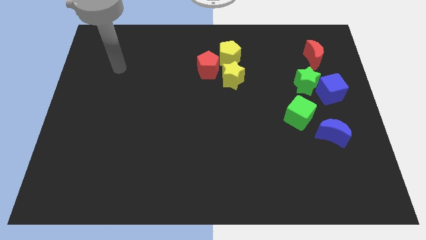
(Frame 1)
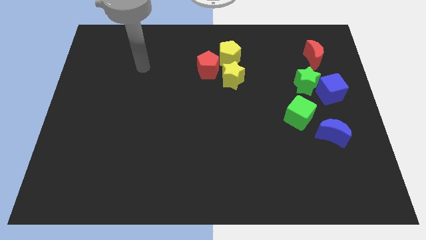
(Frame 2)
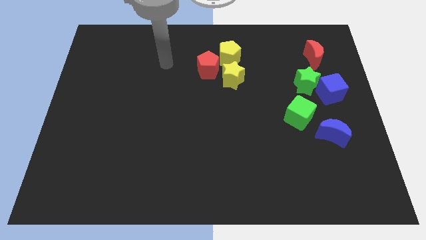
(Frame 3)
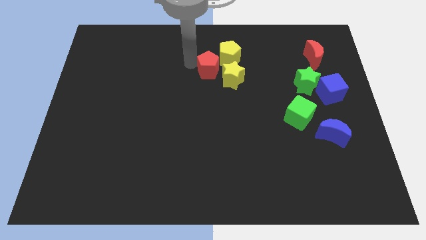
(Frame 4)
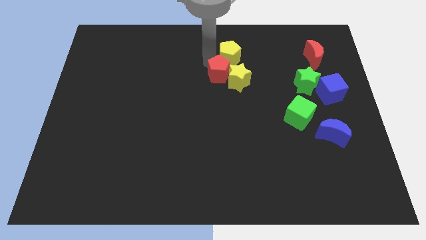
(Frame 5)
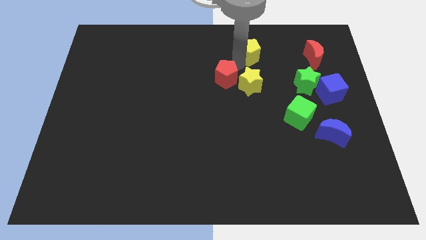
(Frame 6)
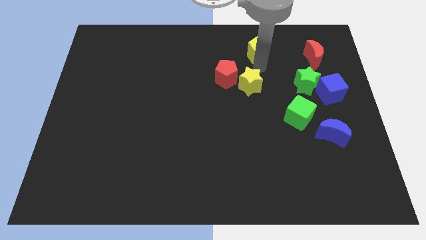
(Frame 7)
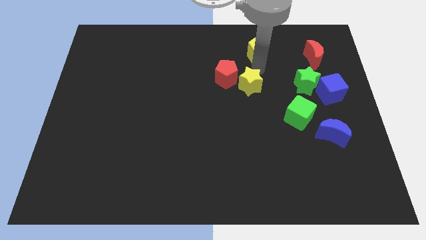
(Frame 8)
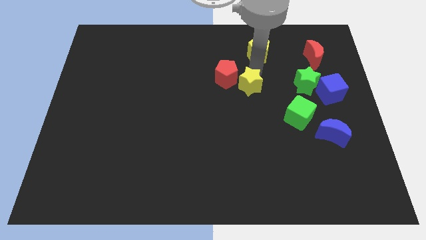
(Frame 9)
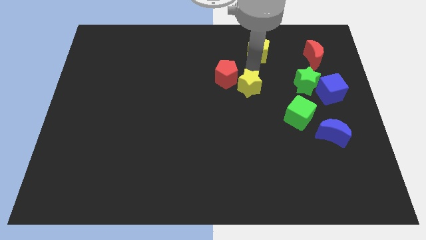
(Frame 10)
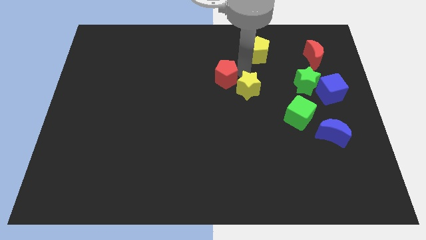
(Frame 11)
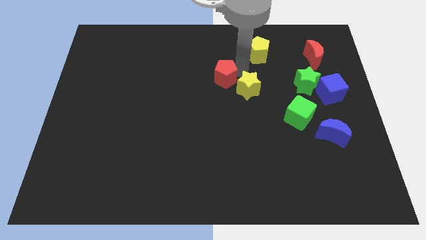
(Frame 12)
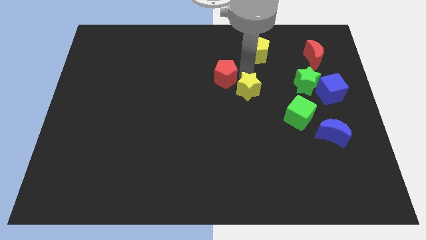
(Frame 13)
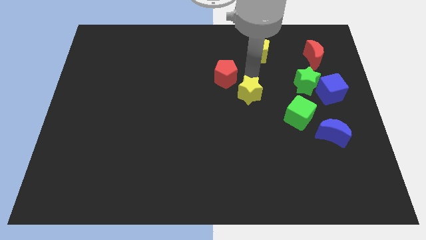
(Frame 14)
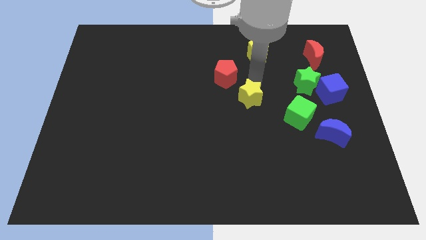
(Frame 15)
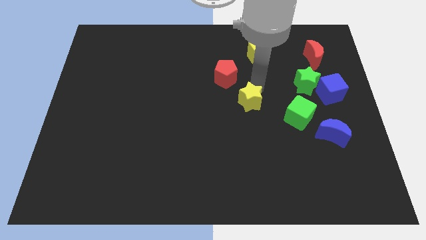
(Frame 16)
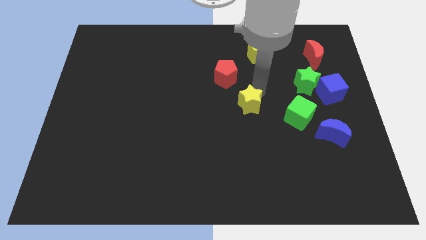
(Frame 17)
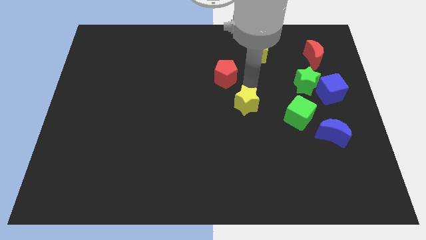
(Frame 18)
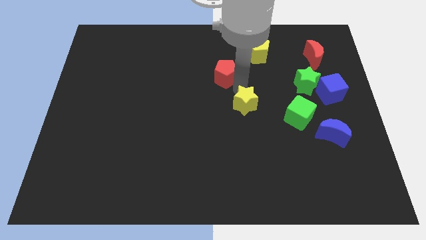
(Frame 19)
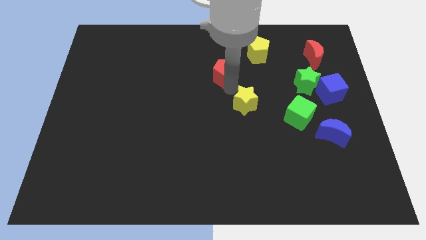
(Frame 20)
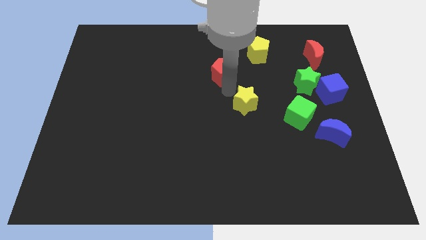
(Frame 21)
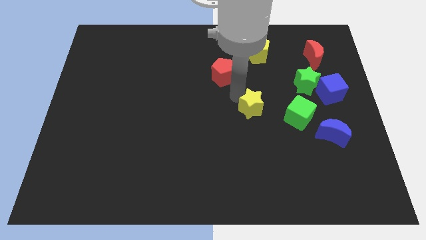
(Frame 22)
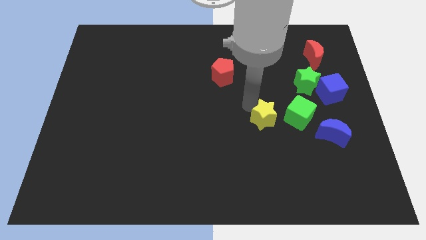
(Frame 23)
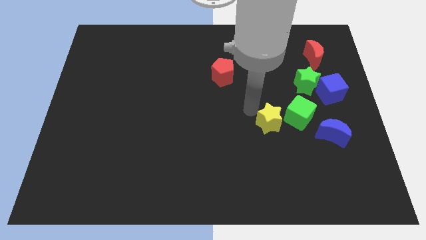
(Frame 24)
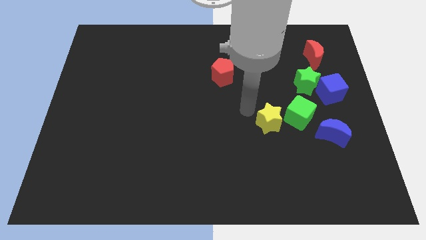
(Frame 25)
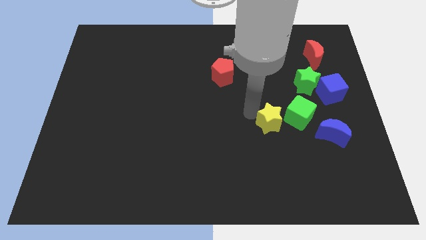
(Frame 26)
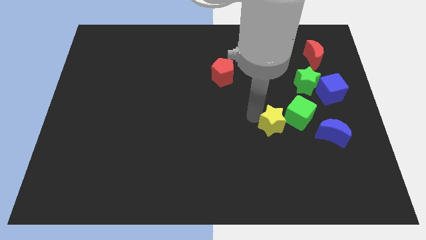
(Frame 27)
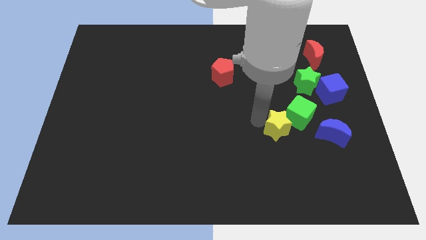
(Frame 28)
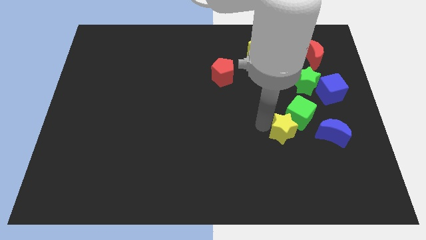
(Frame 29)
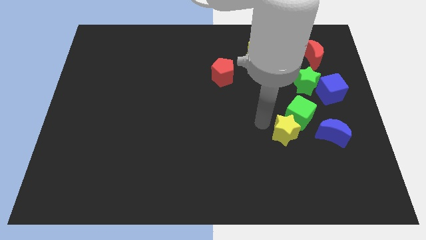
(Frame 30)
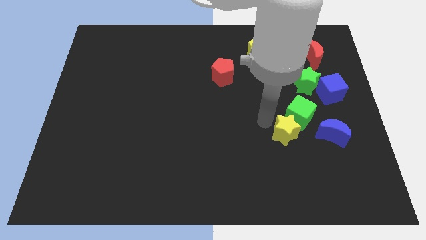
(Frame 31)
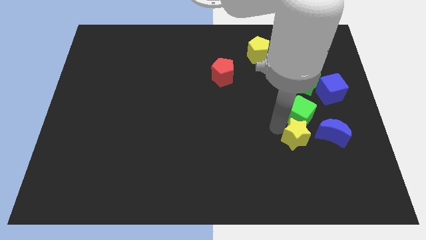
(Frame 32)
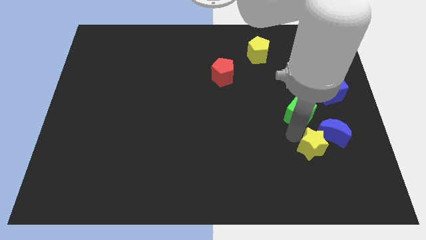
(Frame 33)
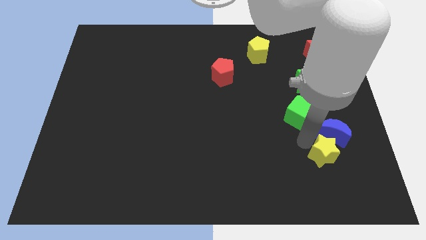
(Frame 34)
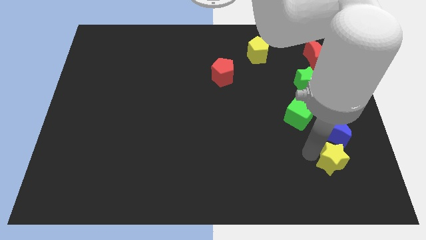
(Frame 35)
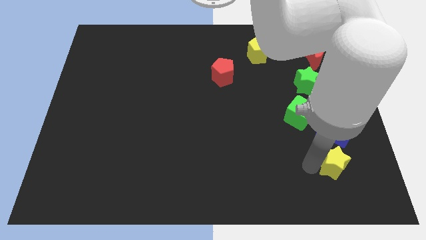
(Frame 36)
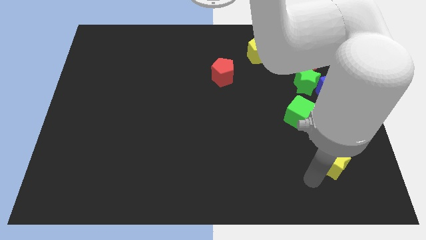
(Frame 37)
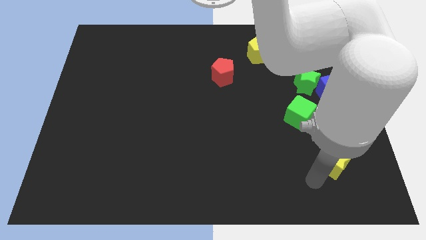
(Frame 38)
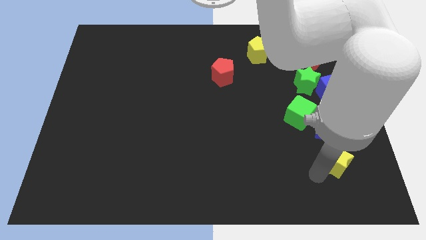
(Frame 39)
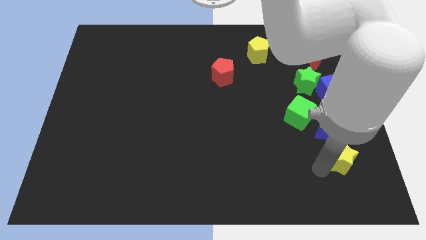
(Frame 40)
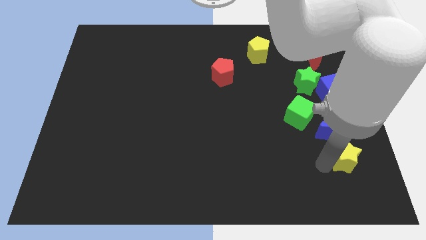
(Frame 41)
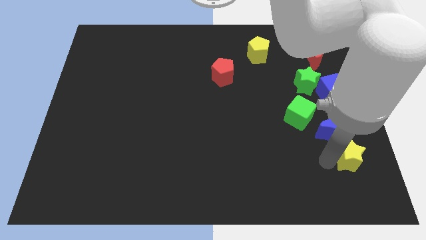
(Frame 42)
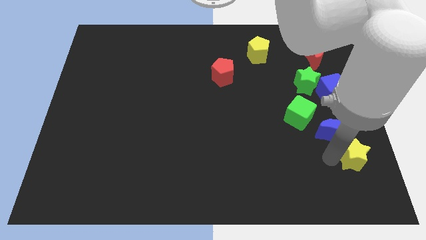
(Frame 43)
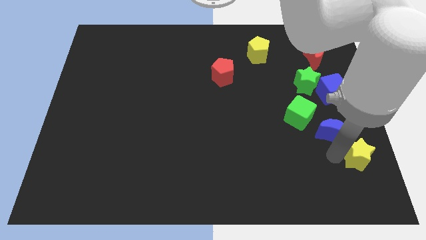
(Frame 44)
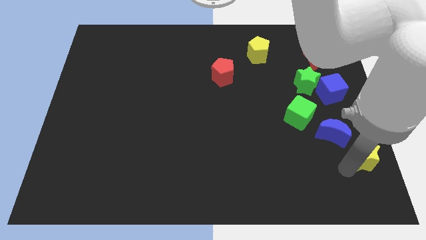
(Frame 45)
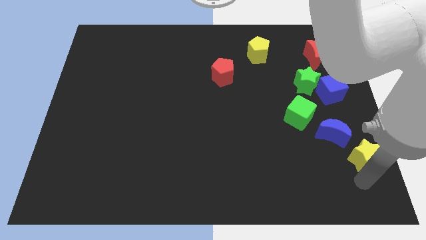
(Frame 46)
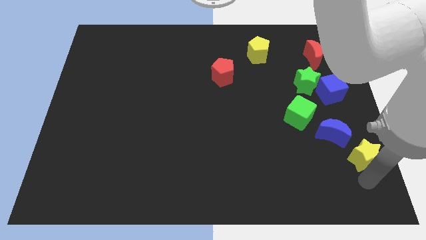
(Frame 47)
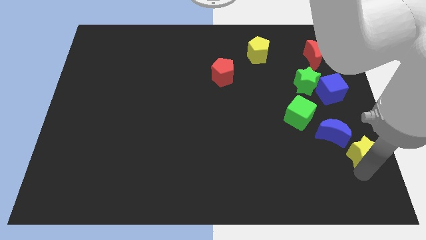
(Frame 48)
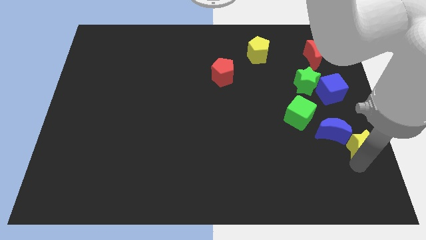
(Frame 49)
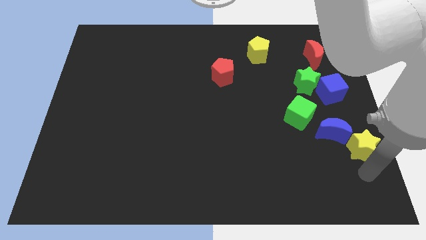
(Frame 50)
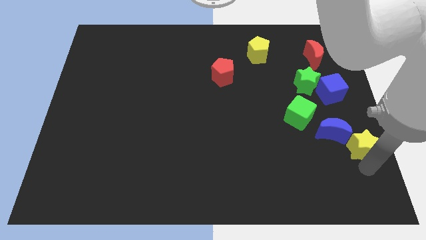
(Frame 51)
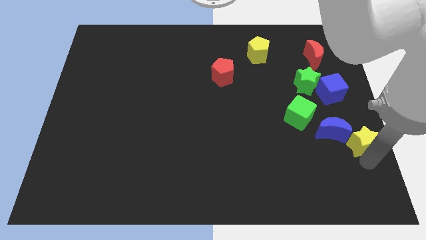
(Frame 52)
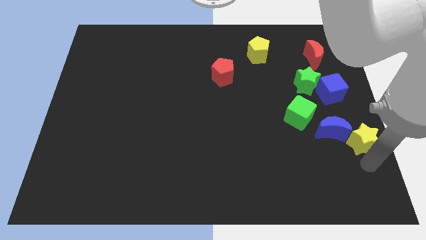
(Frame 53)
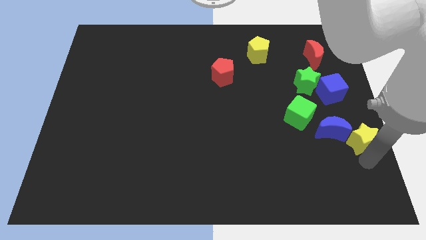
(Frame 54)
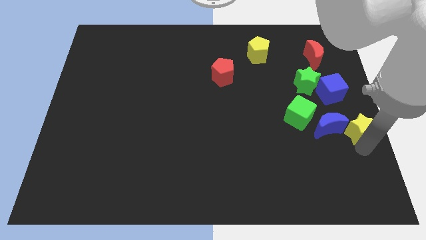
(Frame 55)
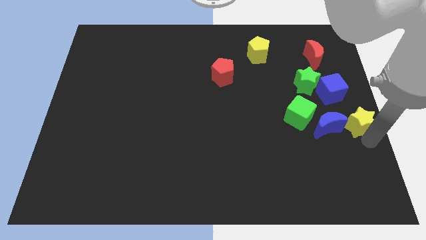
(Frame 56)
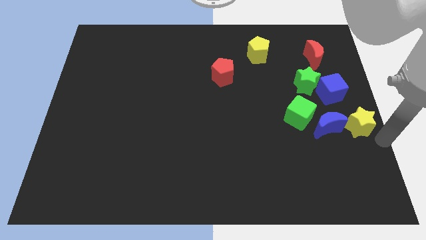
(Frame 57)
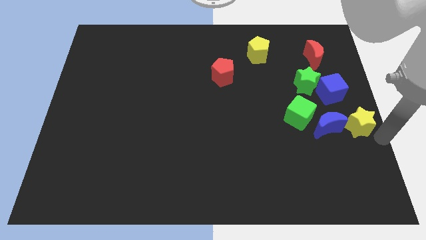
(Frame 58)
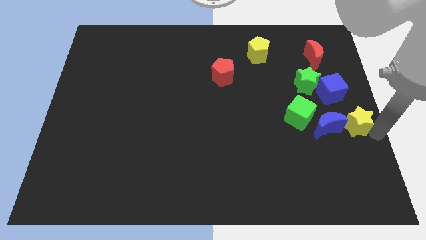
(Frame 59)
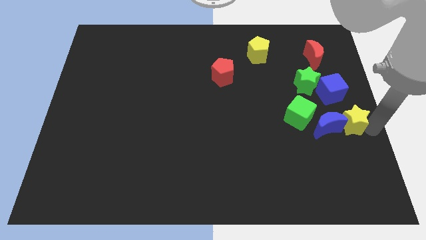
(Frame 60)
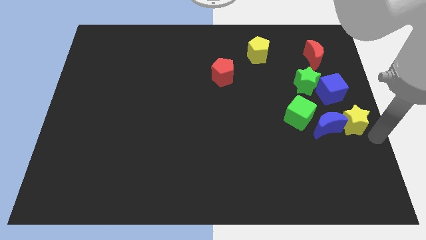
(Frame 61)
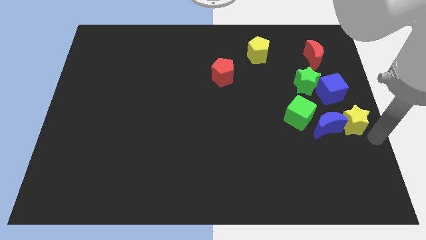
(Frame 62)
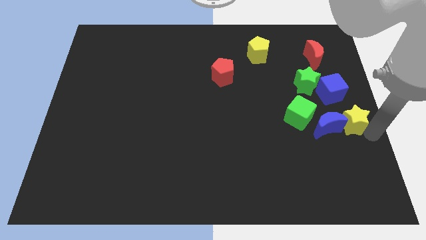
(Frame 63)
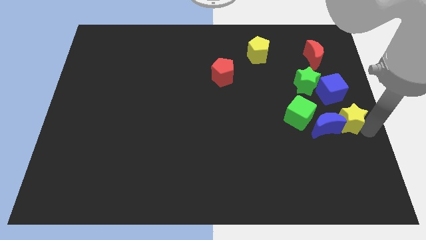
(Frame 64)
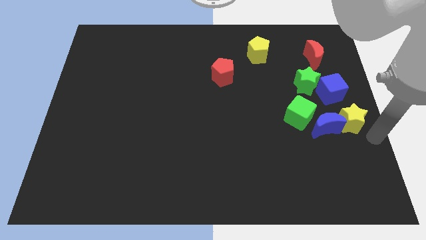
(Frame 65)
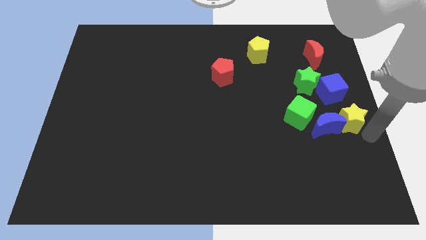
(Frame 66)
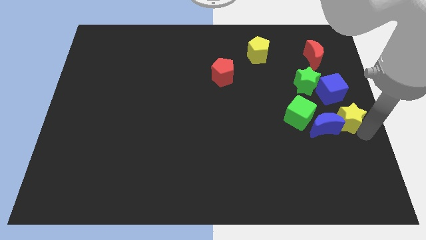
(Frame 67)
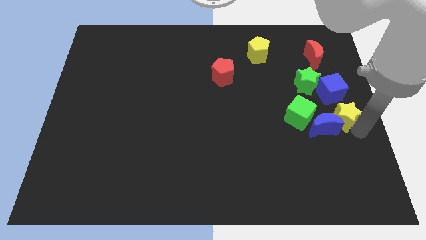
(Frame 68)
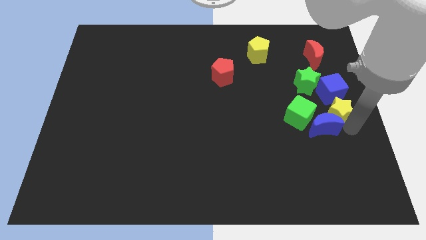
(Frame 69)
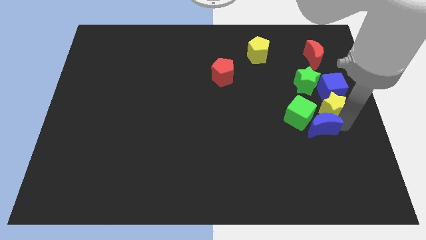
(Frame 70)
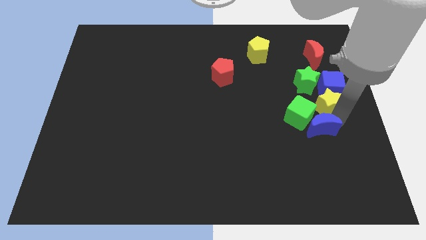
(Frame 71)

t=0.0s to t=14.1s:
move the yellow star to the bottom of the red moon
